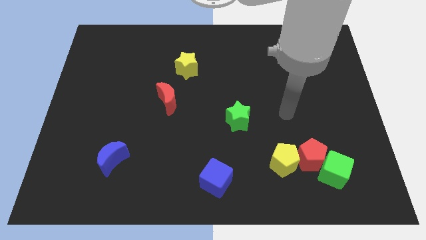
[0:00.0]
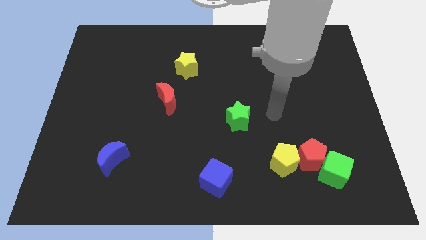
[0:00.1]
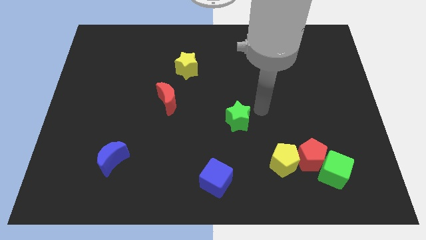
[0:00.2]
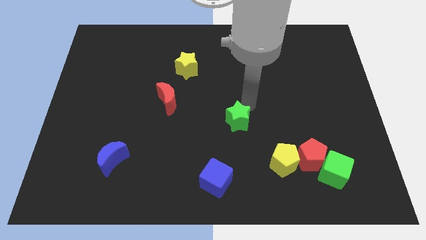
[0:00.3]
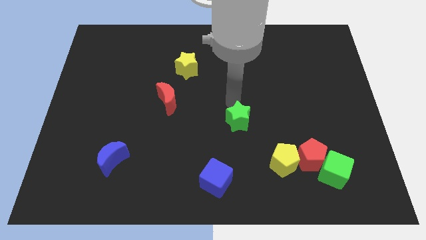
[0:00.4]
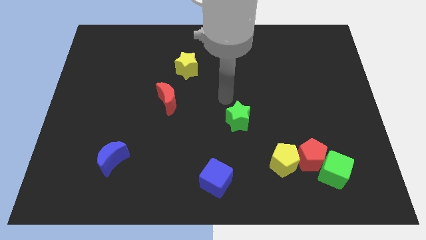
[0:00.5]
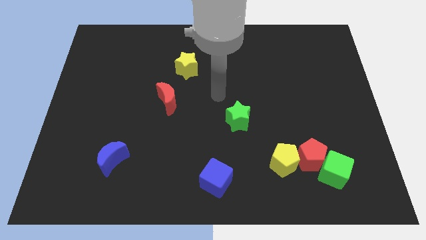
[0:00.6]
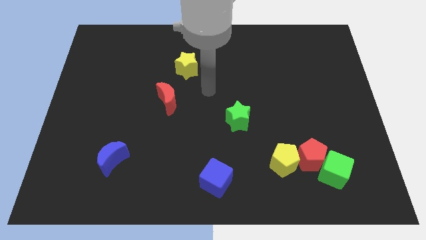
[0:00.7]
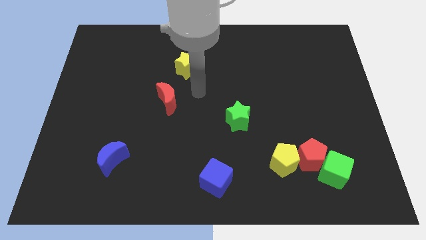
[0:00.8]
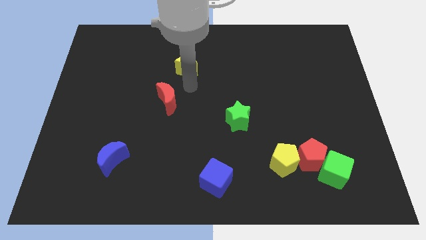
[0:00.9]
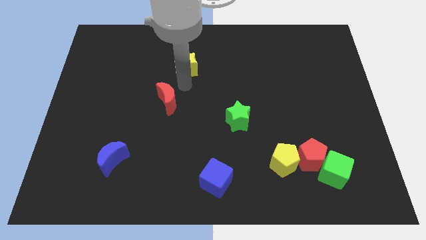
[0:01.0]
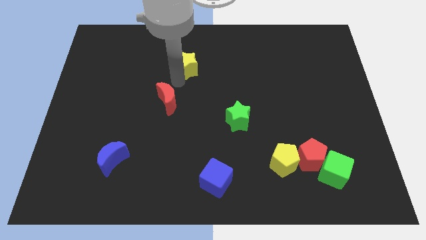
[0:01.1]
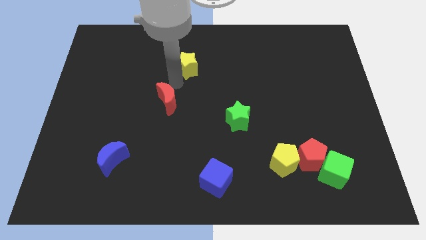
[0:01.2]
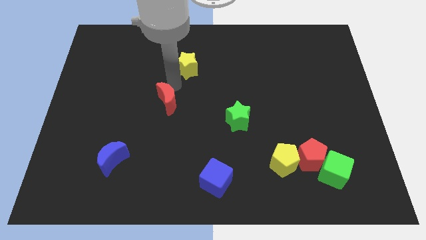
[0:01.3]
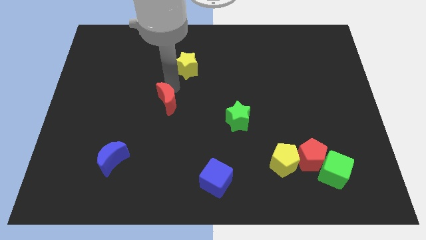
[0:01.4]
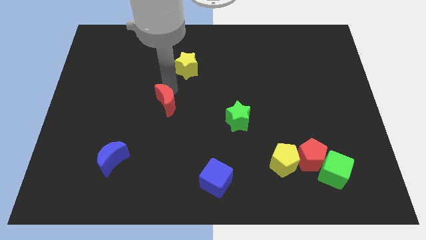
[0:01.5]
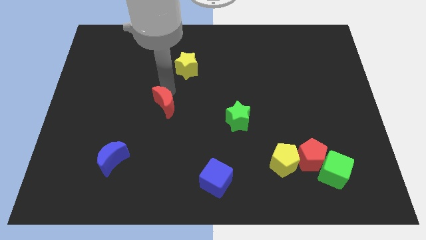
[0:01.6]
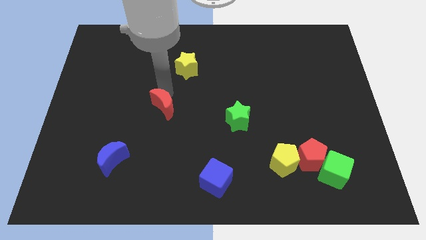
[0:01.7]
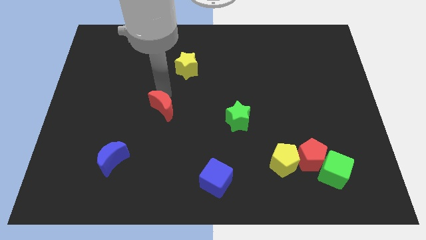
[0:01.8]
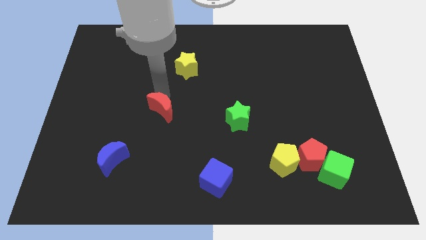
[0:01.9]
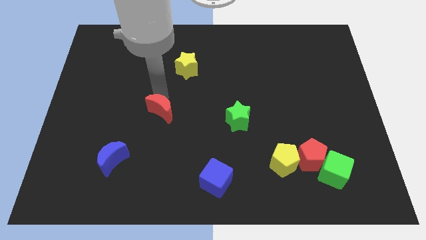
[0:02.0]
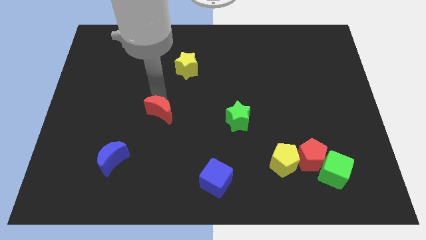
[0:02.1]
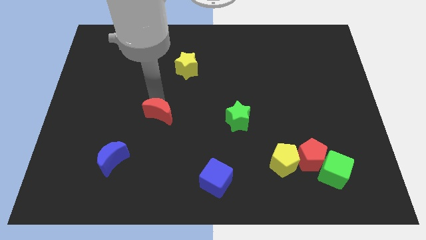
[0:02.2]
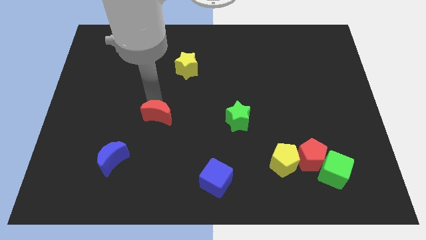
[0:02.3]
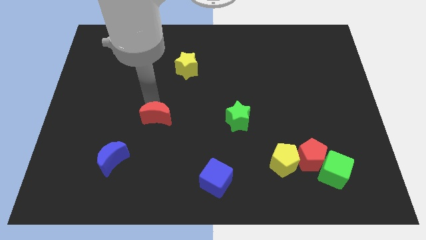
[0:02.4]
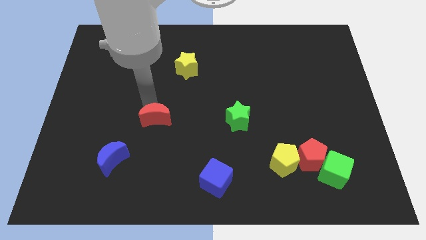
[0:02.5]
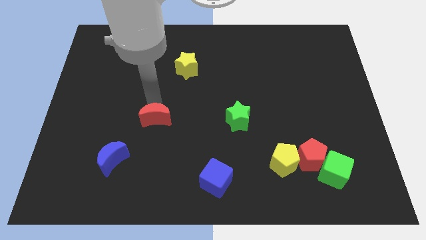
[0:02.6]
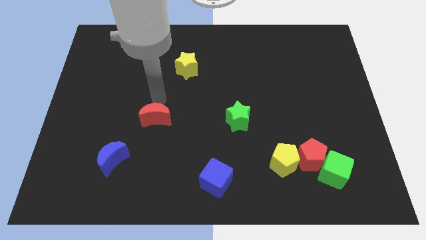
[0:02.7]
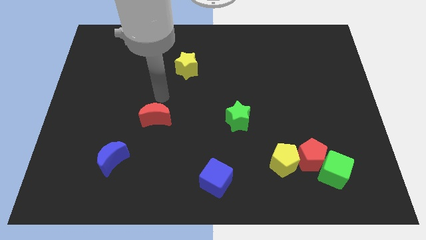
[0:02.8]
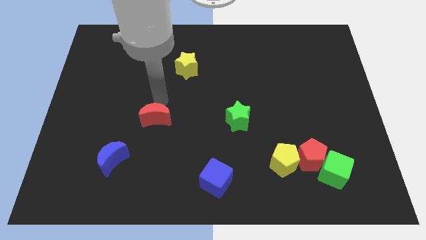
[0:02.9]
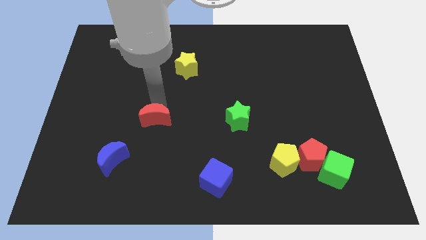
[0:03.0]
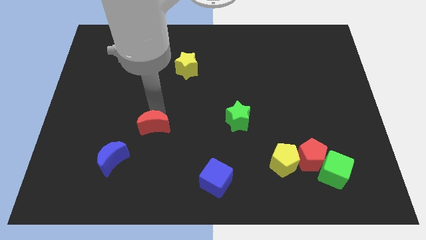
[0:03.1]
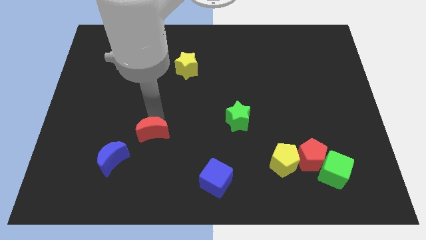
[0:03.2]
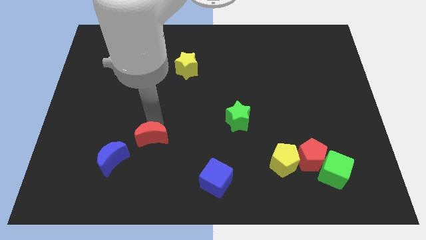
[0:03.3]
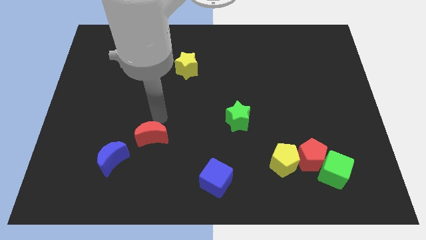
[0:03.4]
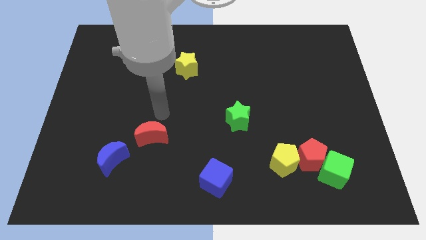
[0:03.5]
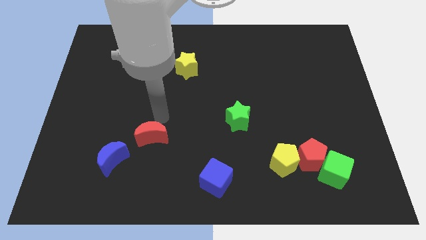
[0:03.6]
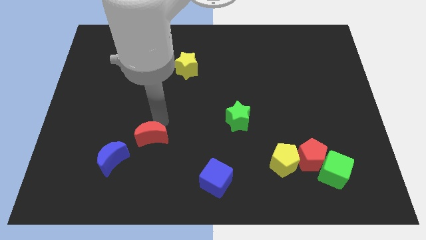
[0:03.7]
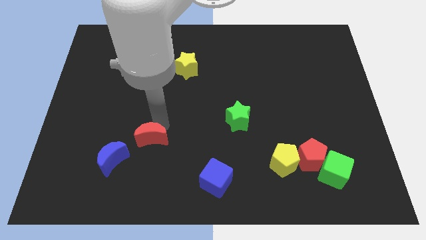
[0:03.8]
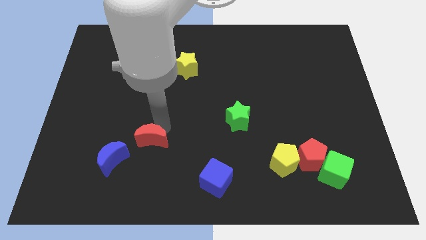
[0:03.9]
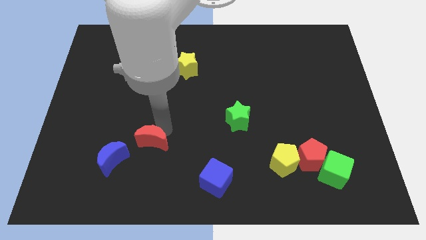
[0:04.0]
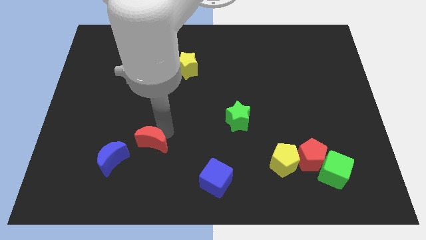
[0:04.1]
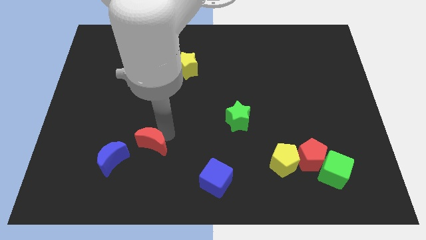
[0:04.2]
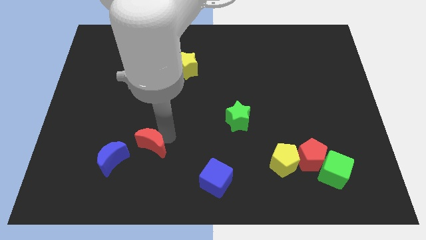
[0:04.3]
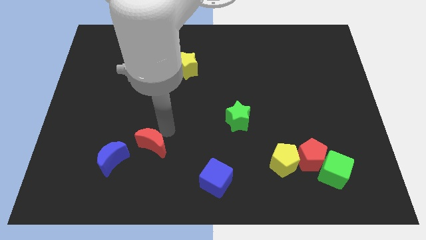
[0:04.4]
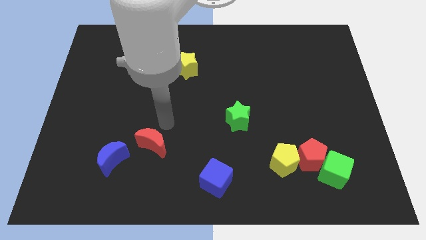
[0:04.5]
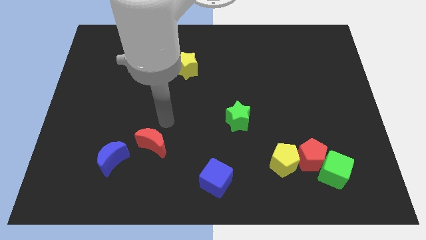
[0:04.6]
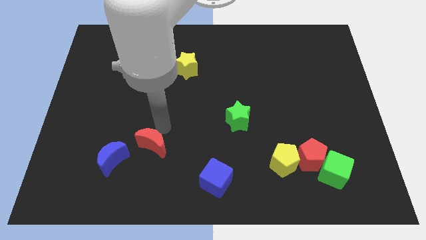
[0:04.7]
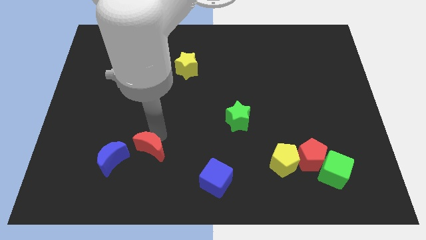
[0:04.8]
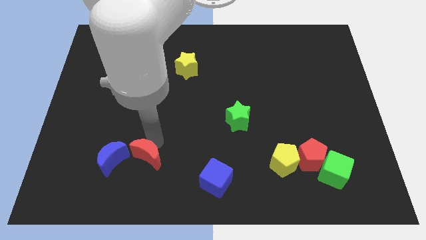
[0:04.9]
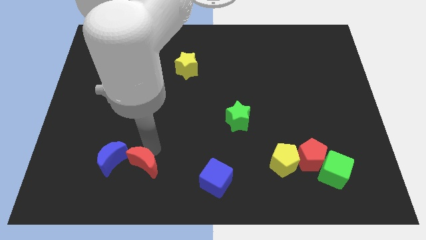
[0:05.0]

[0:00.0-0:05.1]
slide the red moon to the bottom right of the blue moon

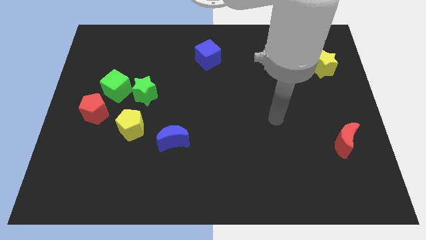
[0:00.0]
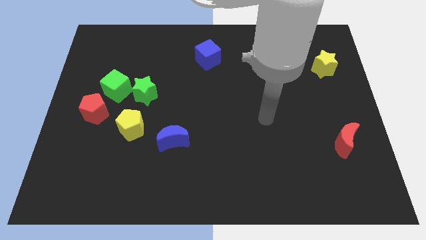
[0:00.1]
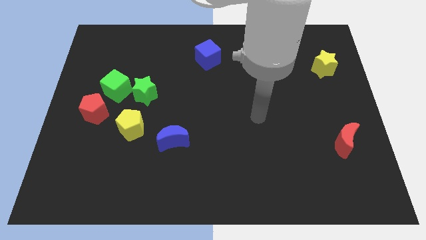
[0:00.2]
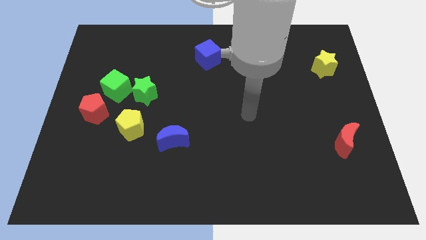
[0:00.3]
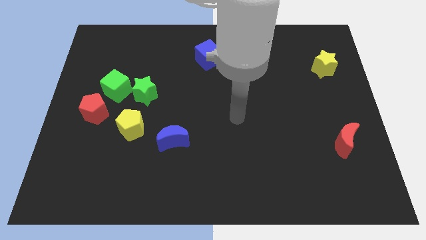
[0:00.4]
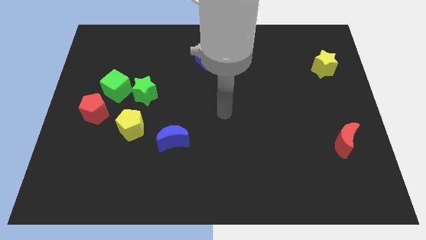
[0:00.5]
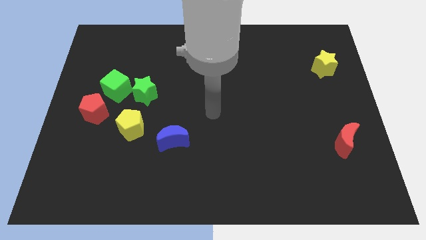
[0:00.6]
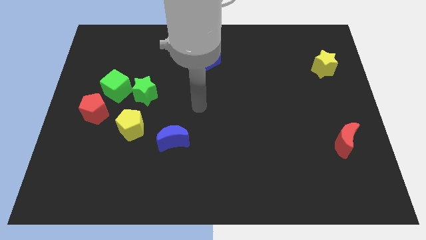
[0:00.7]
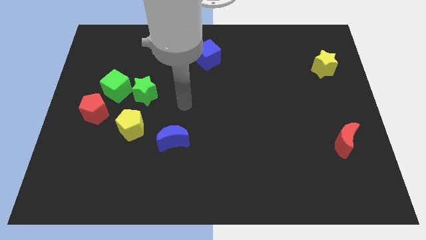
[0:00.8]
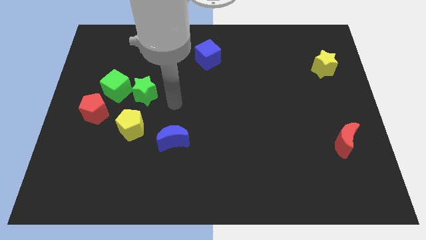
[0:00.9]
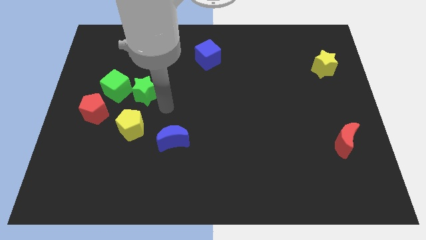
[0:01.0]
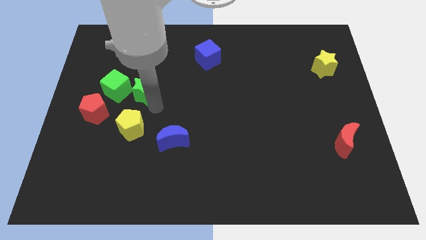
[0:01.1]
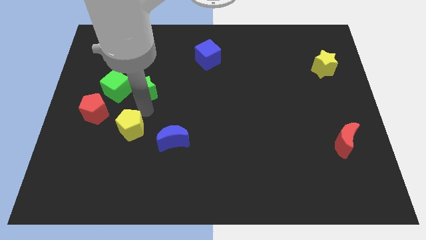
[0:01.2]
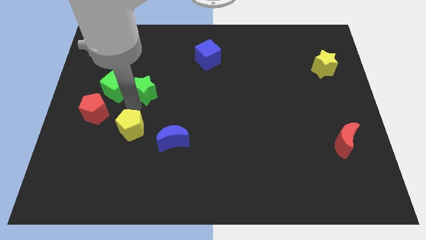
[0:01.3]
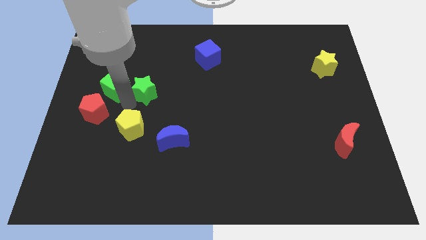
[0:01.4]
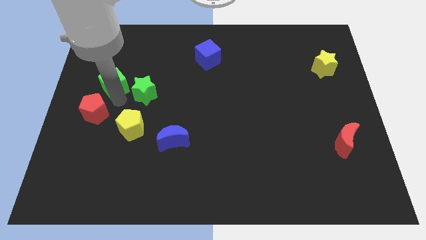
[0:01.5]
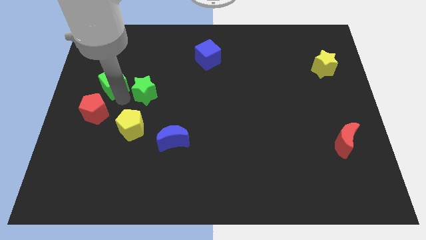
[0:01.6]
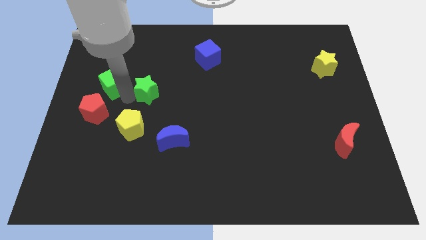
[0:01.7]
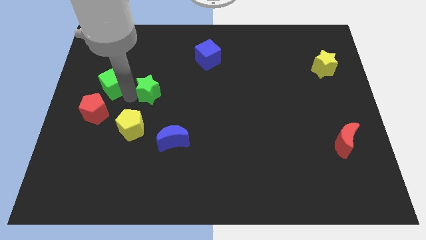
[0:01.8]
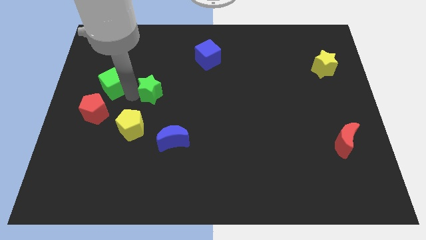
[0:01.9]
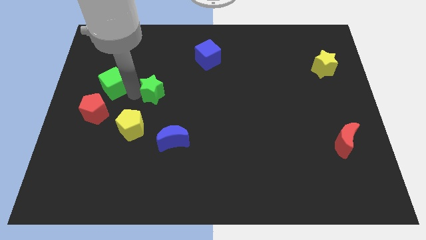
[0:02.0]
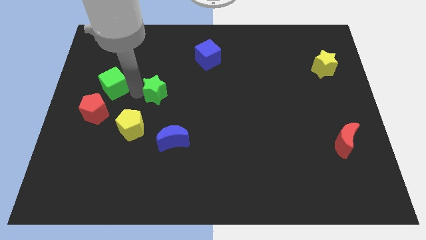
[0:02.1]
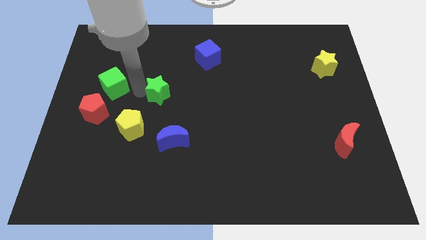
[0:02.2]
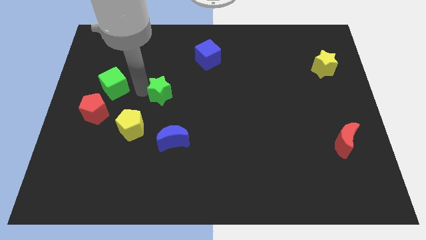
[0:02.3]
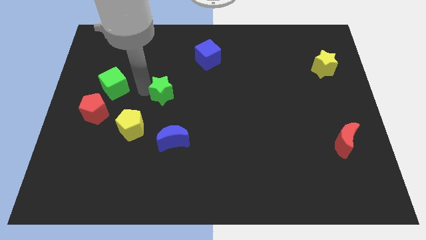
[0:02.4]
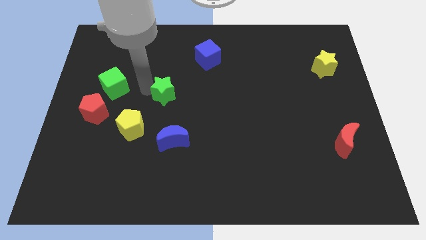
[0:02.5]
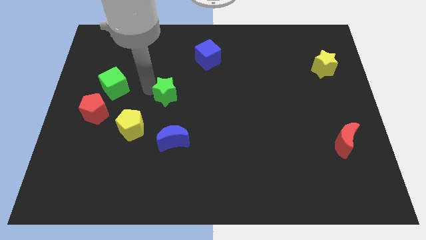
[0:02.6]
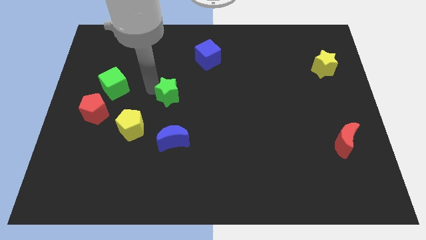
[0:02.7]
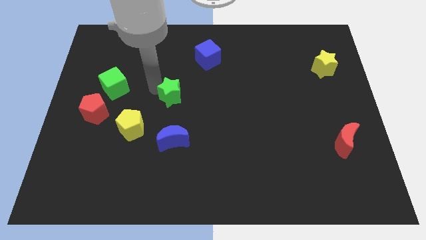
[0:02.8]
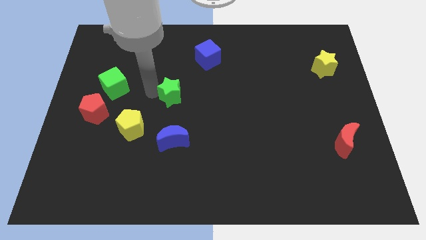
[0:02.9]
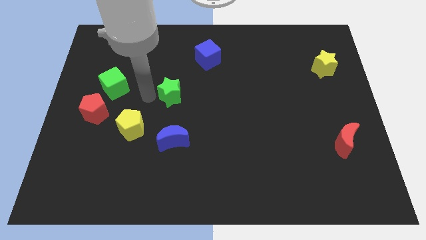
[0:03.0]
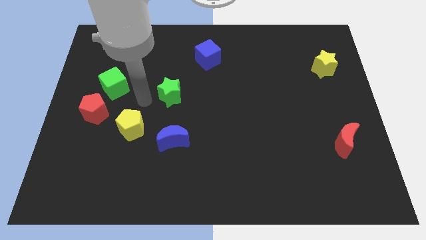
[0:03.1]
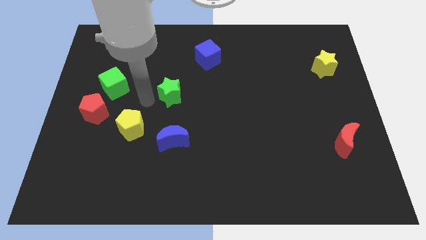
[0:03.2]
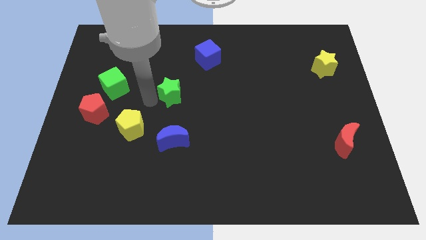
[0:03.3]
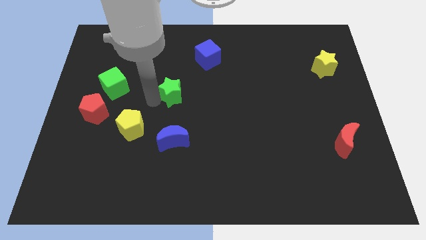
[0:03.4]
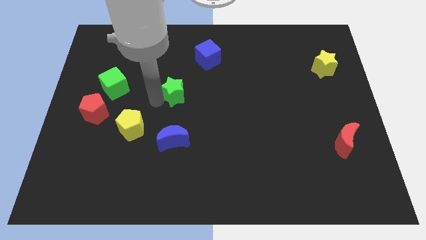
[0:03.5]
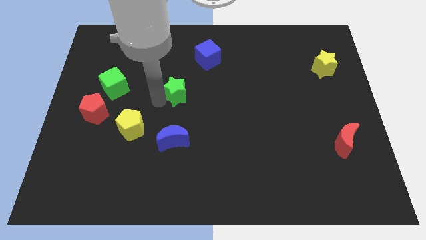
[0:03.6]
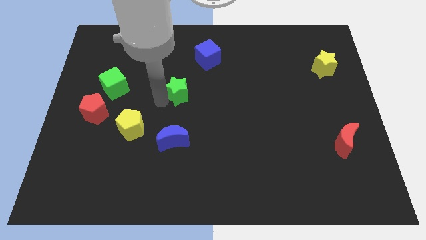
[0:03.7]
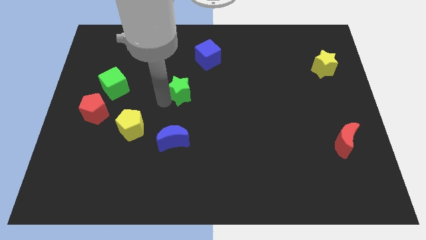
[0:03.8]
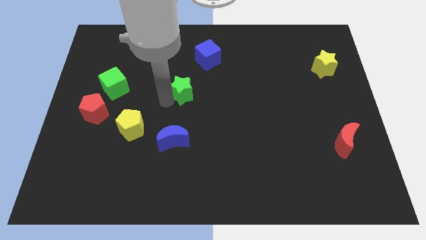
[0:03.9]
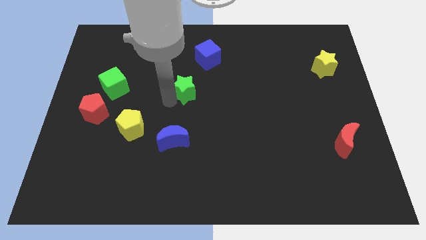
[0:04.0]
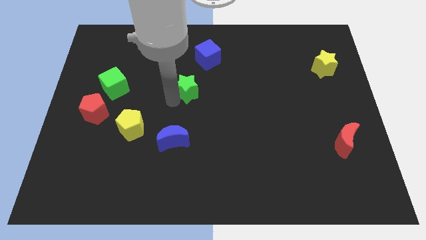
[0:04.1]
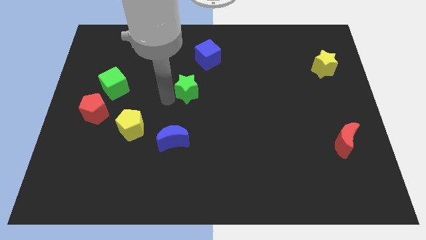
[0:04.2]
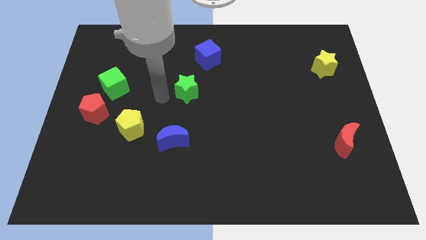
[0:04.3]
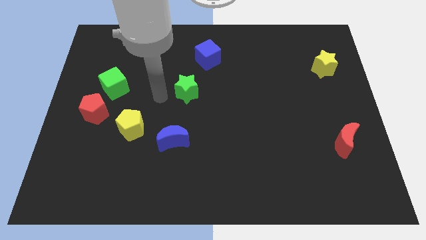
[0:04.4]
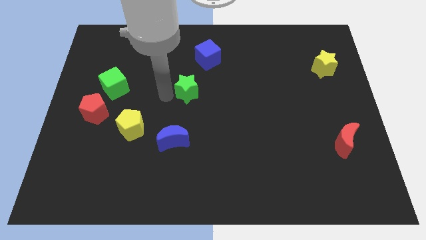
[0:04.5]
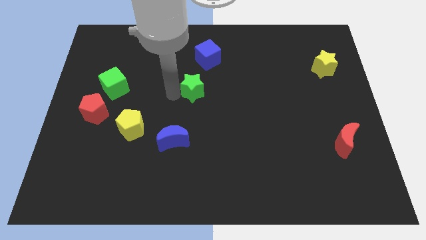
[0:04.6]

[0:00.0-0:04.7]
slide the green star below the blue cube
